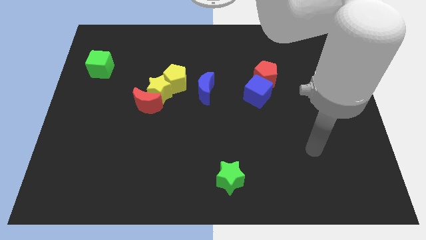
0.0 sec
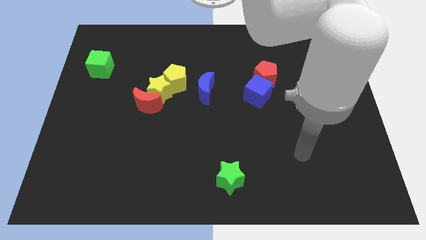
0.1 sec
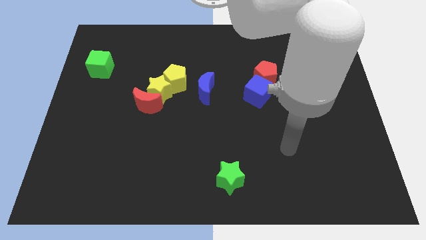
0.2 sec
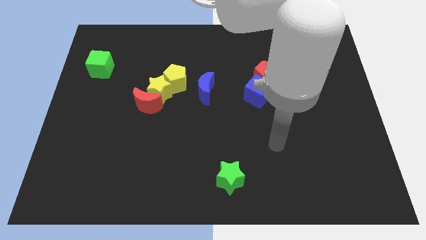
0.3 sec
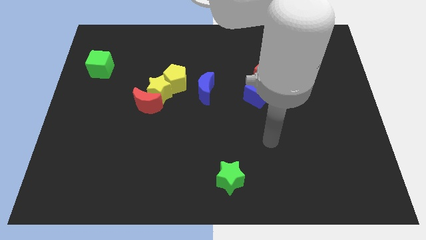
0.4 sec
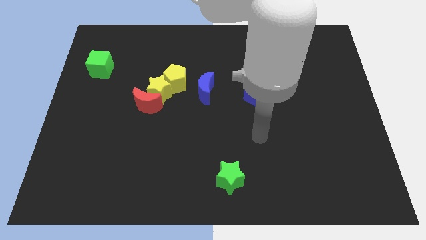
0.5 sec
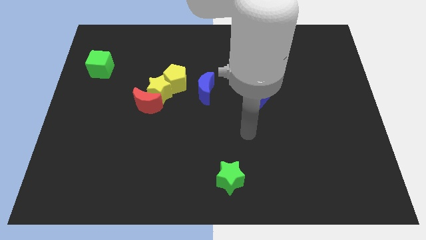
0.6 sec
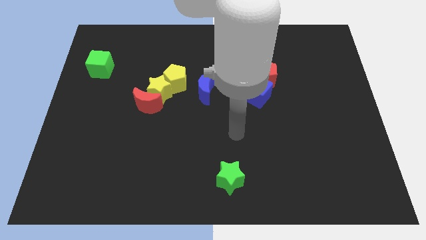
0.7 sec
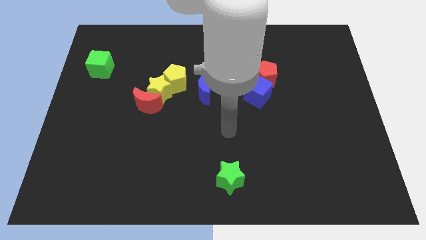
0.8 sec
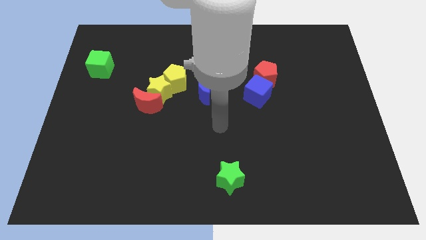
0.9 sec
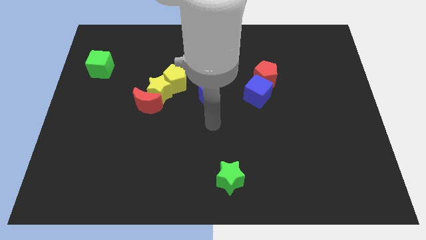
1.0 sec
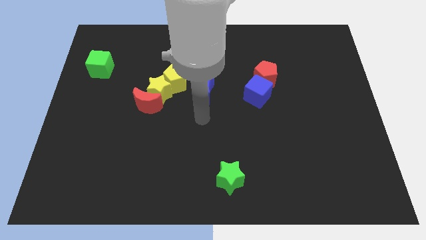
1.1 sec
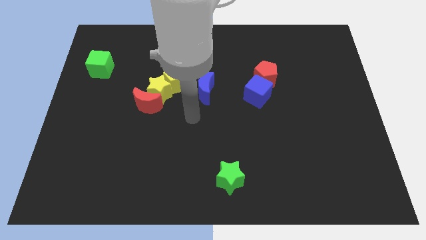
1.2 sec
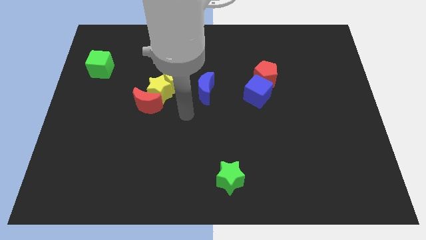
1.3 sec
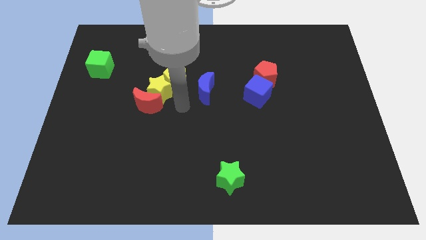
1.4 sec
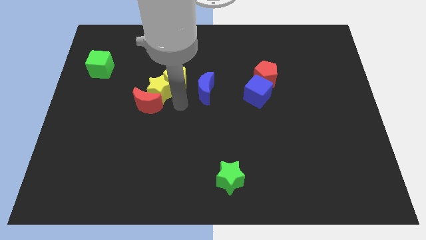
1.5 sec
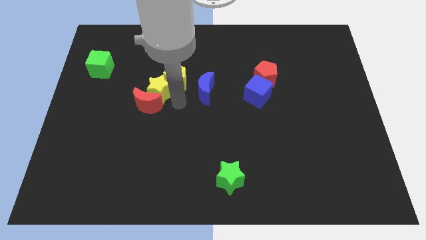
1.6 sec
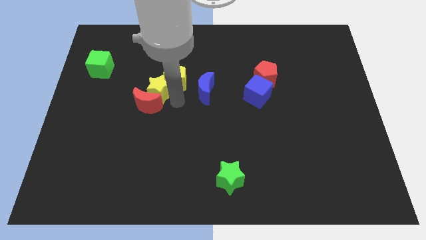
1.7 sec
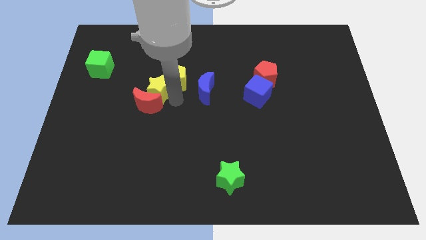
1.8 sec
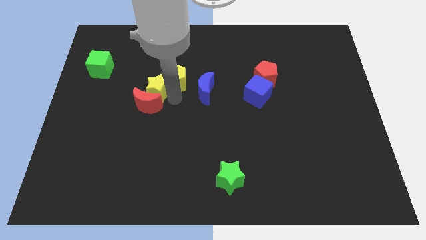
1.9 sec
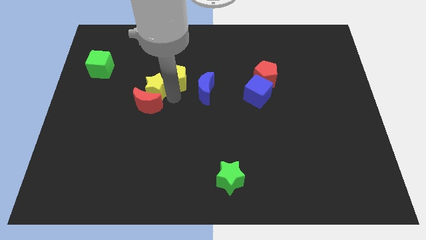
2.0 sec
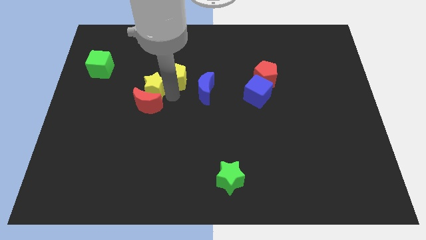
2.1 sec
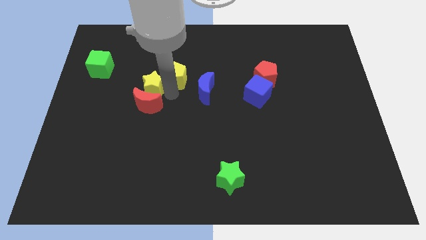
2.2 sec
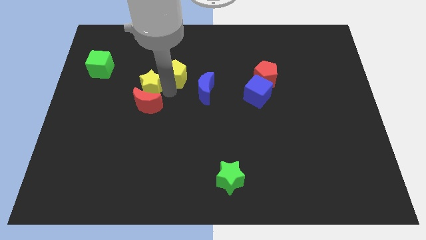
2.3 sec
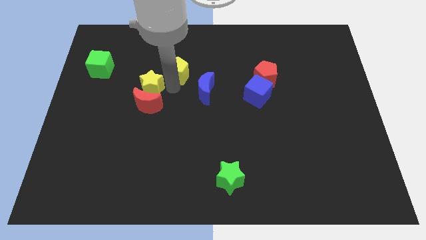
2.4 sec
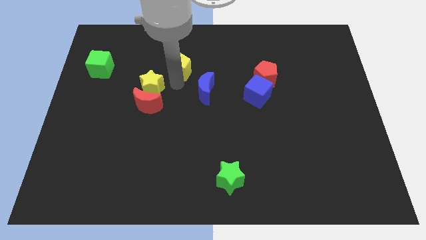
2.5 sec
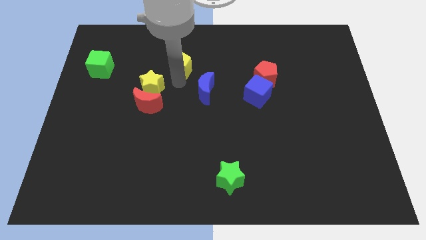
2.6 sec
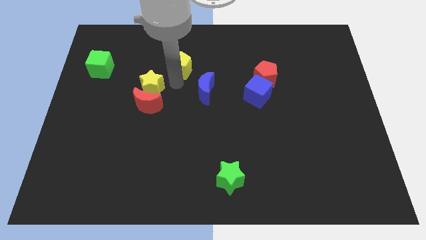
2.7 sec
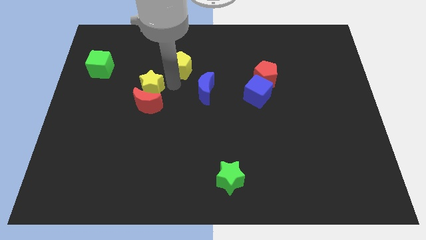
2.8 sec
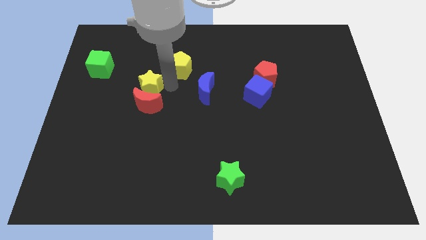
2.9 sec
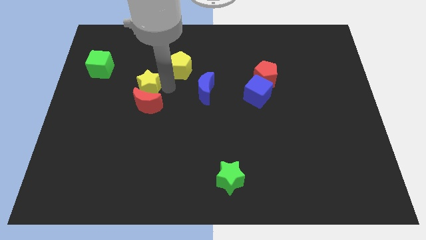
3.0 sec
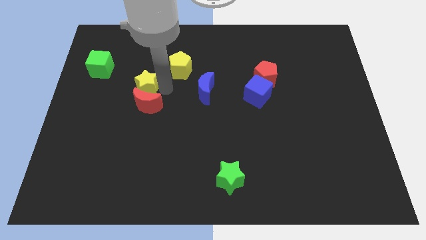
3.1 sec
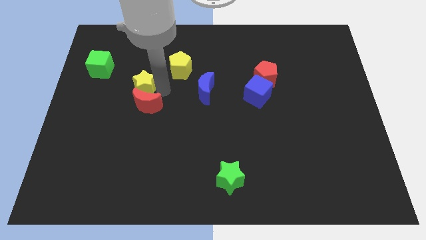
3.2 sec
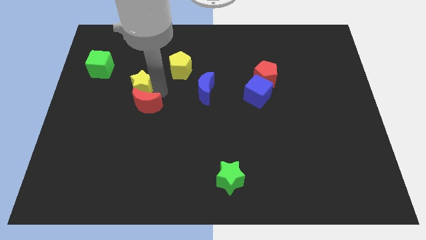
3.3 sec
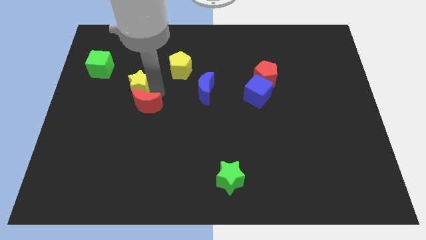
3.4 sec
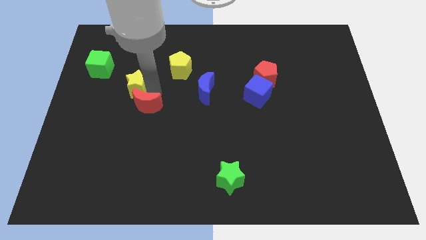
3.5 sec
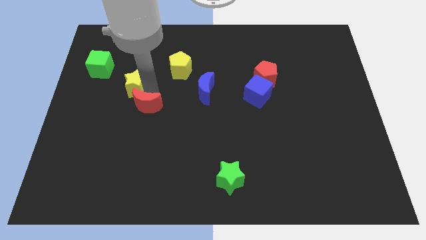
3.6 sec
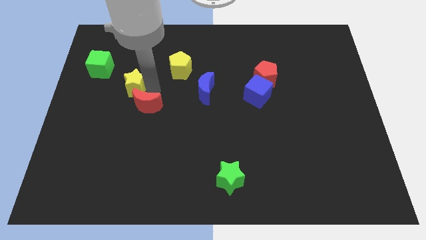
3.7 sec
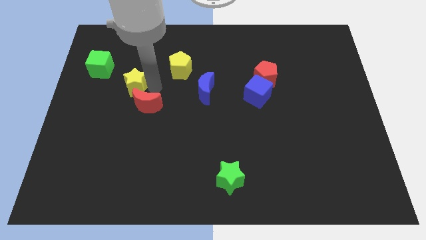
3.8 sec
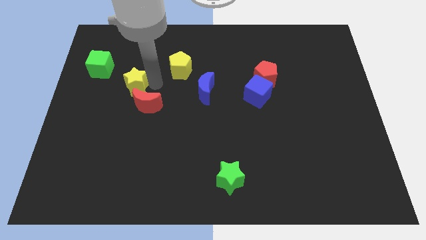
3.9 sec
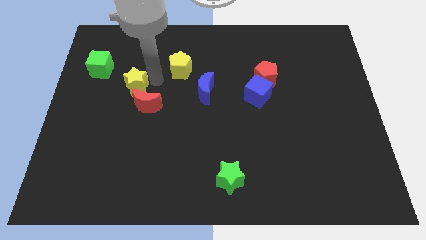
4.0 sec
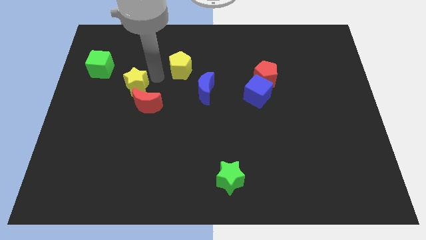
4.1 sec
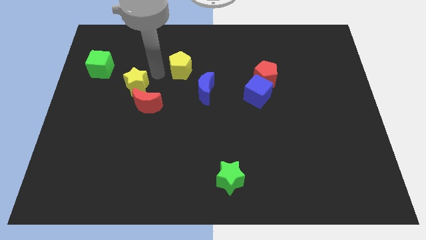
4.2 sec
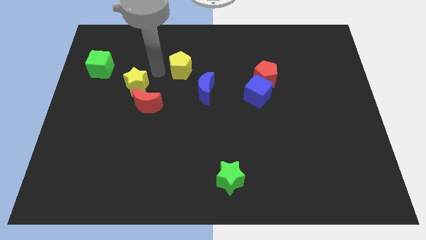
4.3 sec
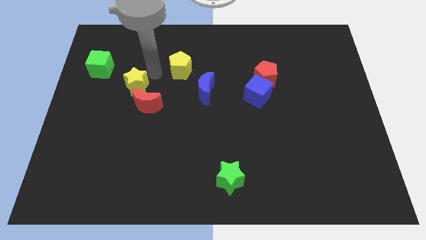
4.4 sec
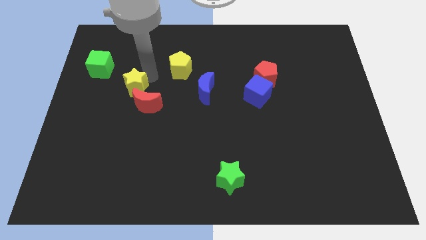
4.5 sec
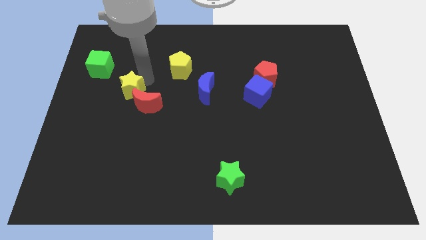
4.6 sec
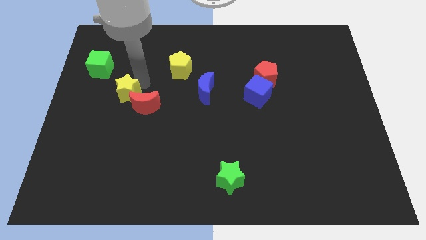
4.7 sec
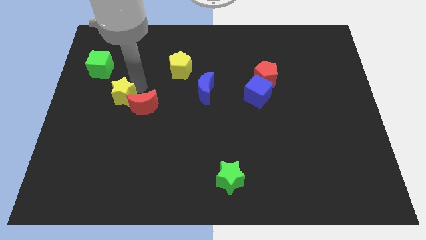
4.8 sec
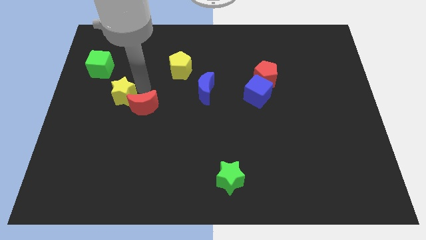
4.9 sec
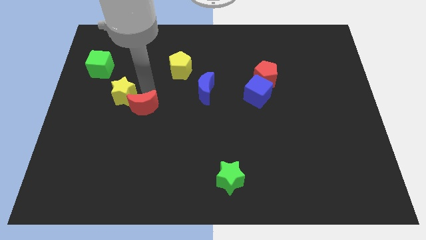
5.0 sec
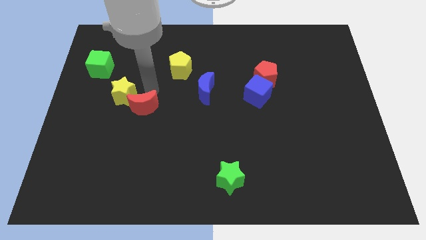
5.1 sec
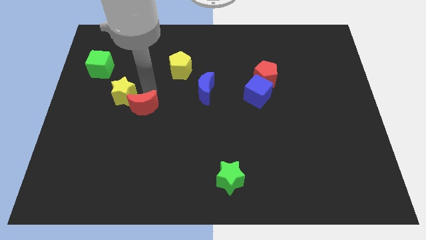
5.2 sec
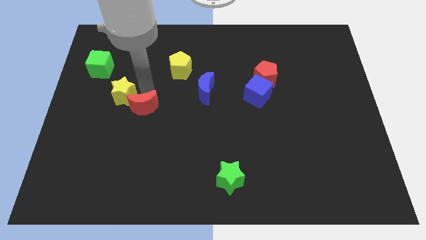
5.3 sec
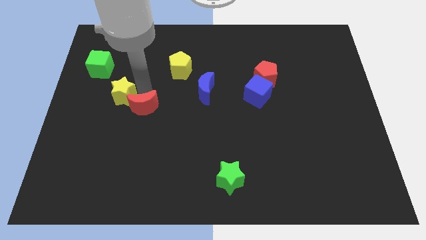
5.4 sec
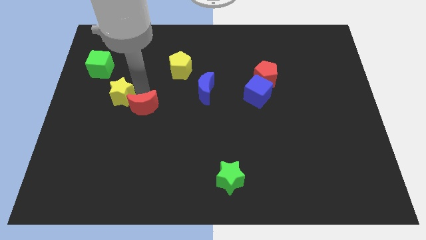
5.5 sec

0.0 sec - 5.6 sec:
separate the yellow star from the red moon and yellow pentagon

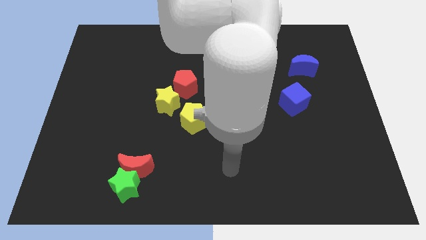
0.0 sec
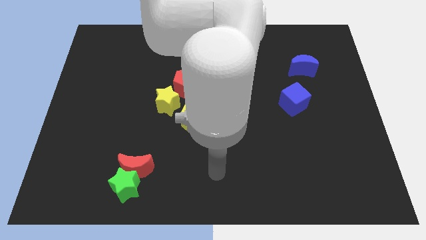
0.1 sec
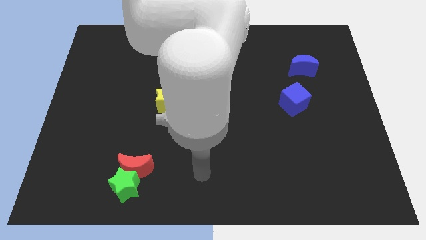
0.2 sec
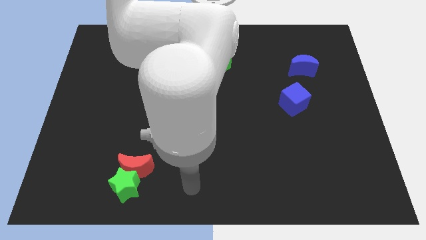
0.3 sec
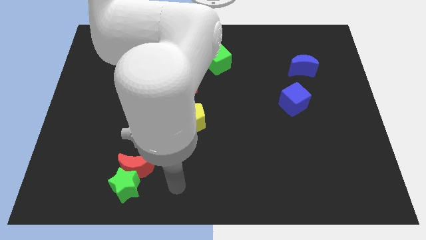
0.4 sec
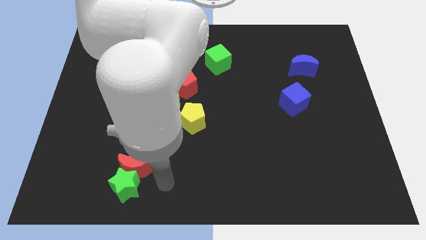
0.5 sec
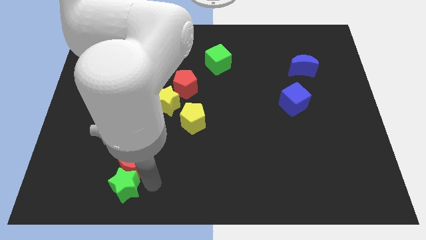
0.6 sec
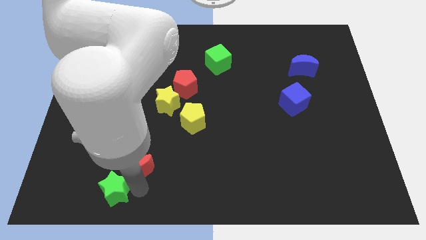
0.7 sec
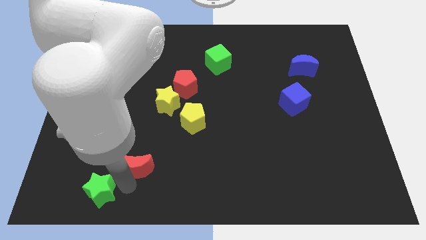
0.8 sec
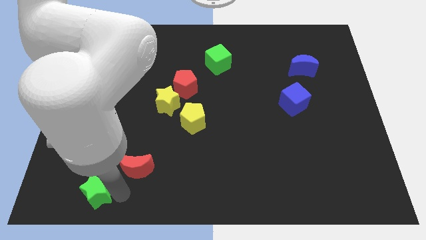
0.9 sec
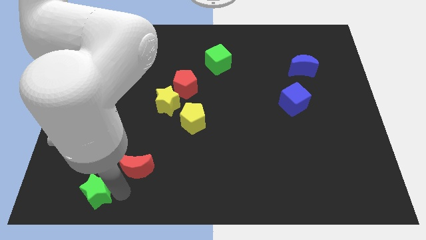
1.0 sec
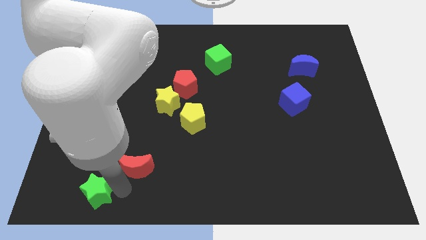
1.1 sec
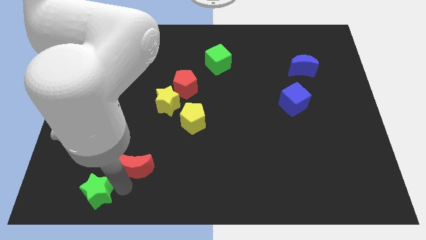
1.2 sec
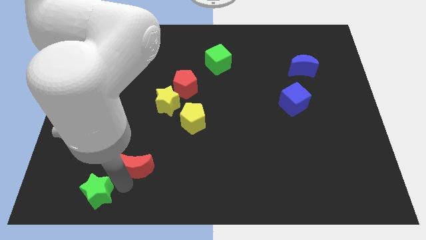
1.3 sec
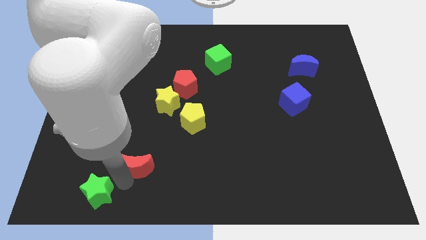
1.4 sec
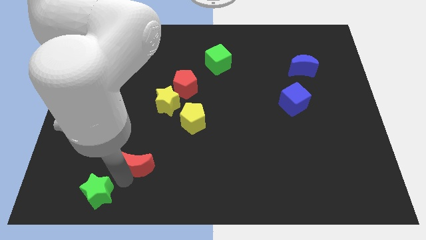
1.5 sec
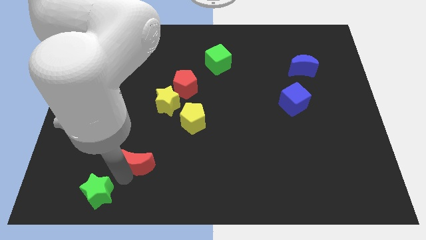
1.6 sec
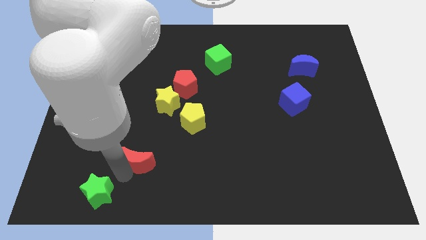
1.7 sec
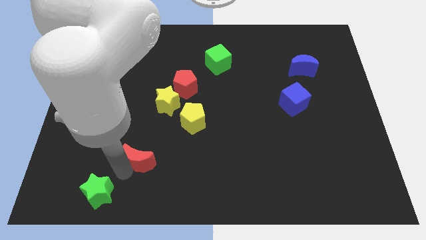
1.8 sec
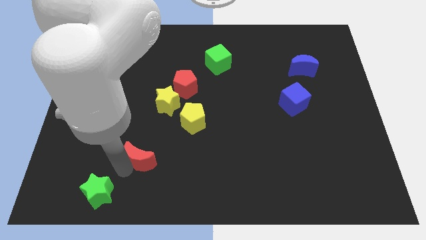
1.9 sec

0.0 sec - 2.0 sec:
separate the red moon from the green star

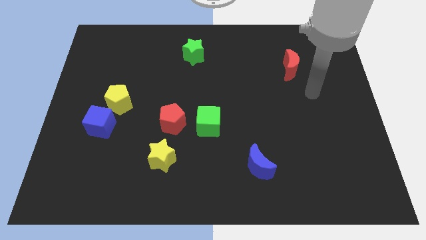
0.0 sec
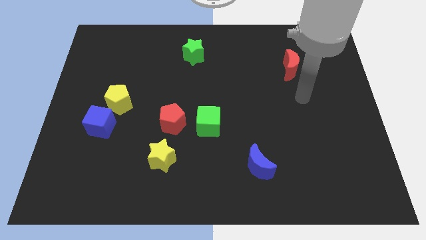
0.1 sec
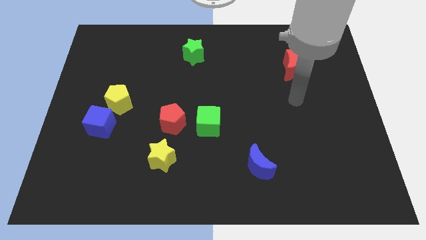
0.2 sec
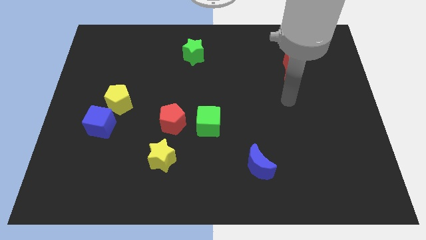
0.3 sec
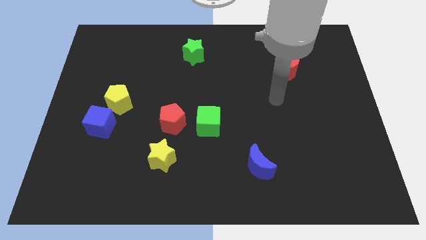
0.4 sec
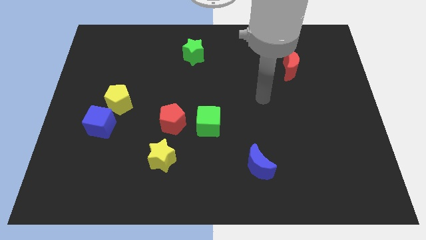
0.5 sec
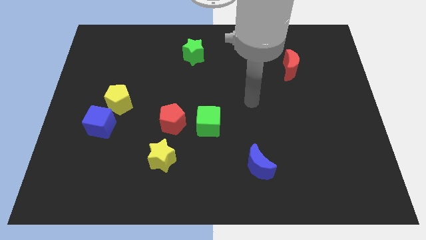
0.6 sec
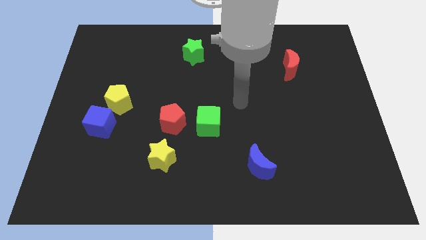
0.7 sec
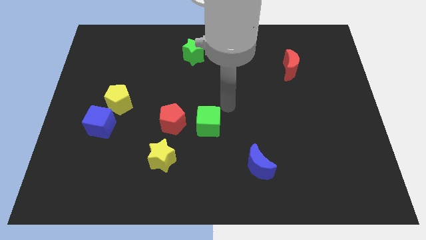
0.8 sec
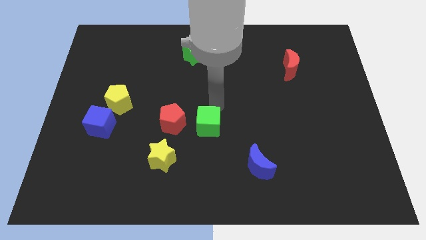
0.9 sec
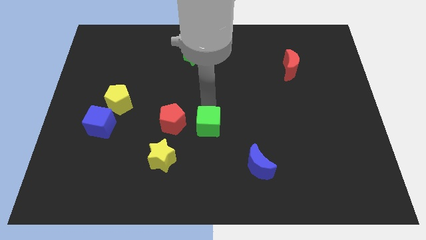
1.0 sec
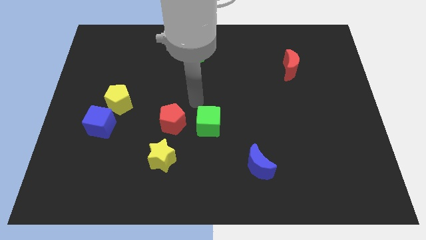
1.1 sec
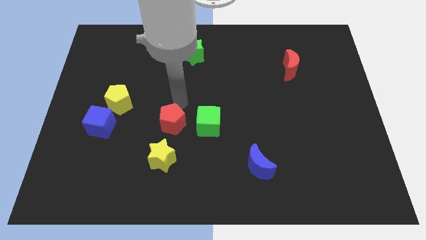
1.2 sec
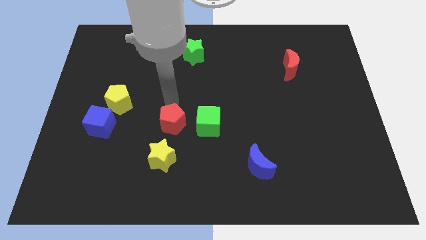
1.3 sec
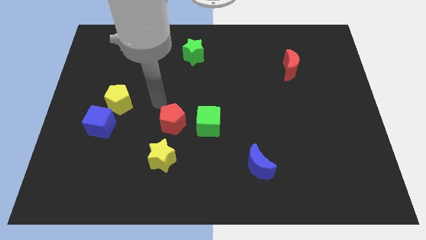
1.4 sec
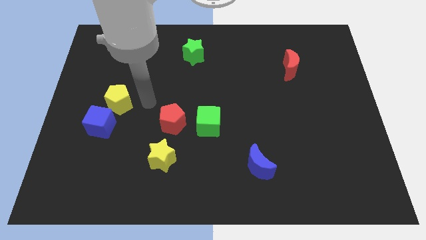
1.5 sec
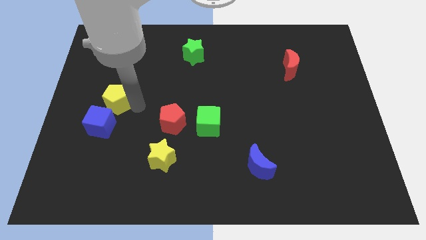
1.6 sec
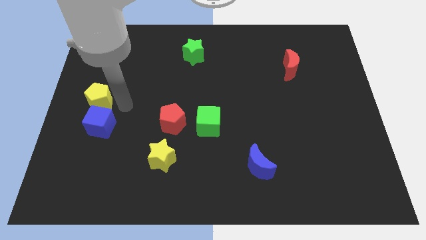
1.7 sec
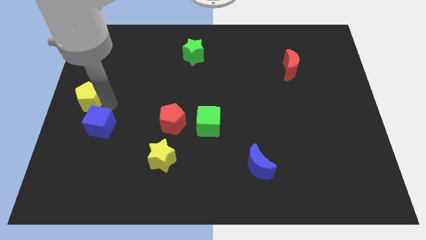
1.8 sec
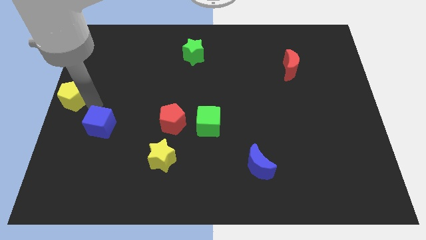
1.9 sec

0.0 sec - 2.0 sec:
separate the blue cube from the yellow pentagon
